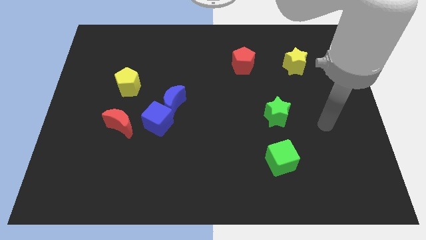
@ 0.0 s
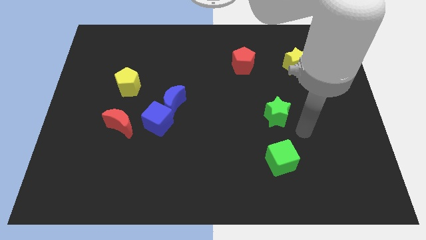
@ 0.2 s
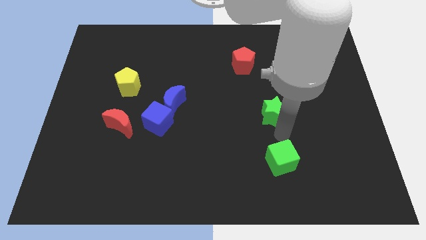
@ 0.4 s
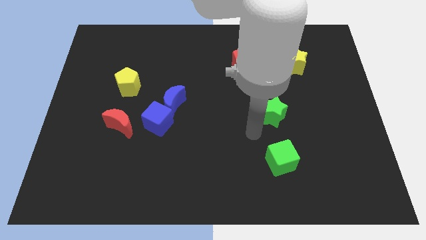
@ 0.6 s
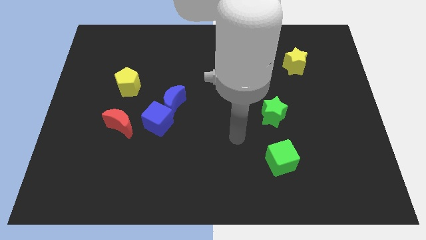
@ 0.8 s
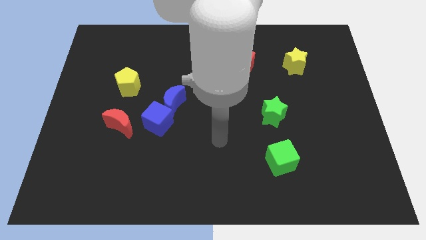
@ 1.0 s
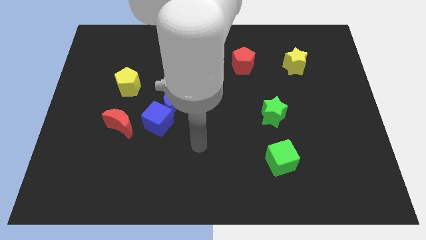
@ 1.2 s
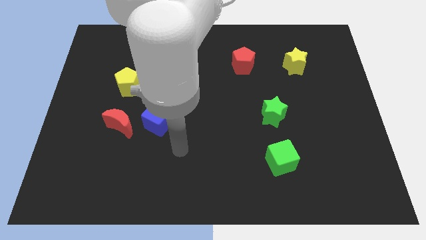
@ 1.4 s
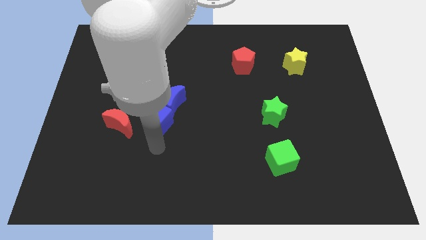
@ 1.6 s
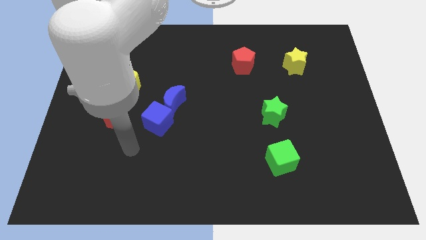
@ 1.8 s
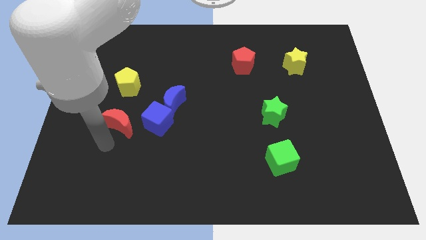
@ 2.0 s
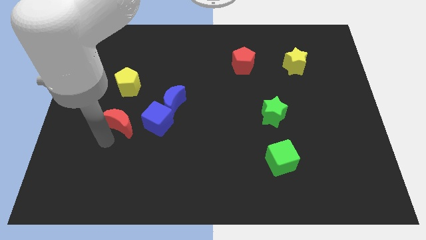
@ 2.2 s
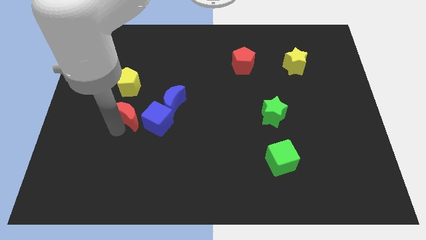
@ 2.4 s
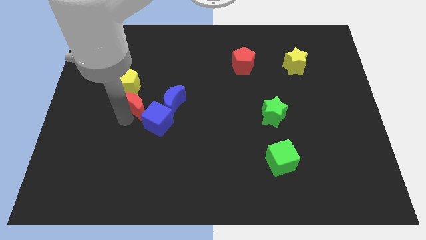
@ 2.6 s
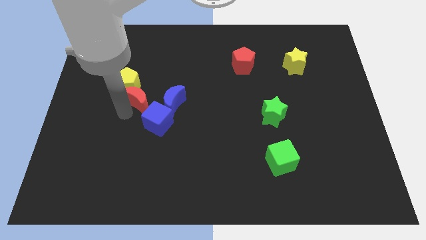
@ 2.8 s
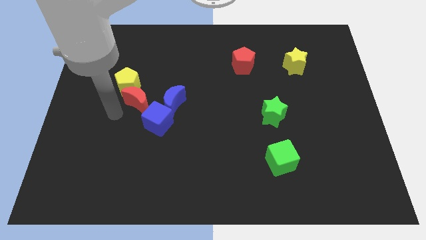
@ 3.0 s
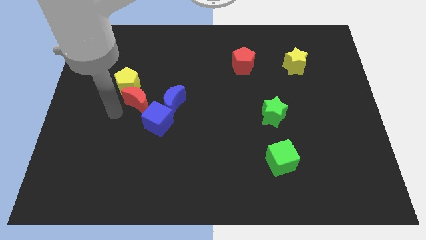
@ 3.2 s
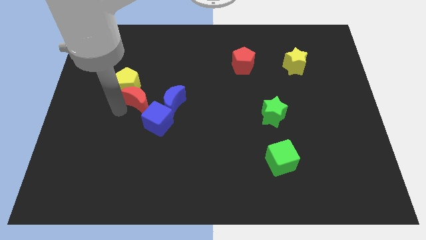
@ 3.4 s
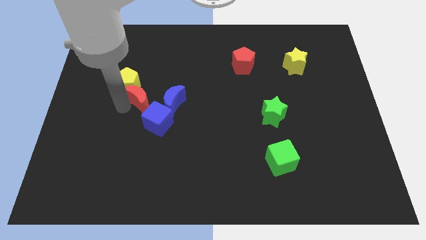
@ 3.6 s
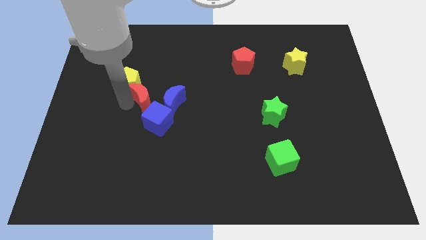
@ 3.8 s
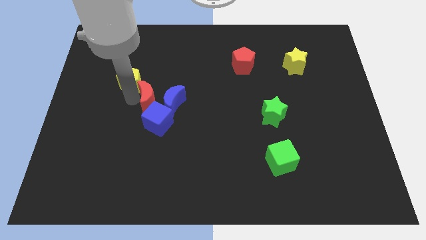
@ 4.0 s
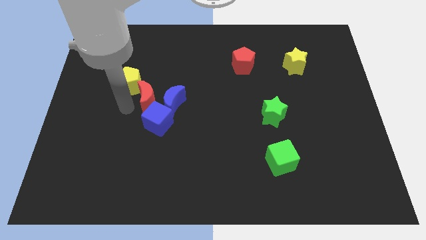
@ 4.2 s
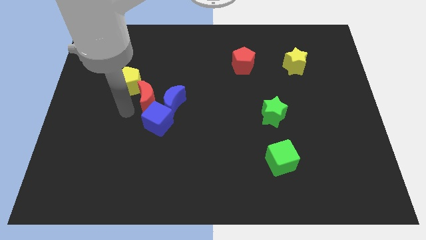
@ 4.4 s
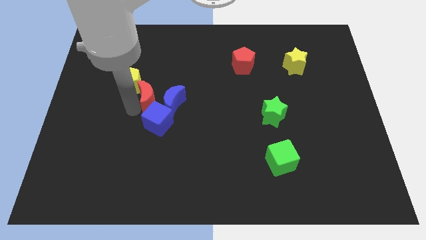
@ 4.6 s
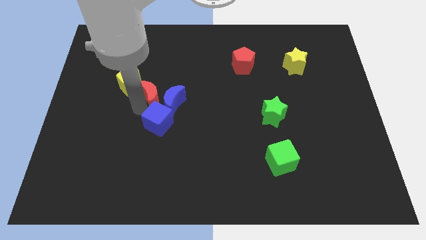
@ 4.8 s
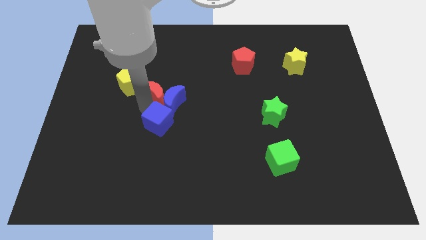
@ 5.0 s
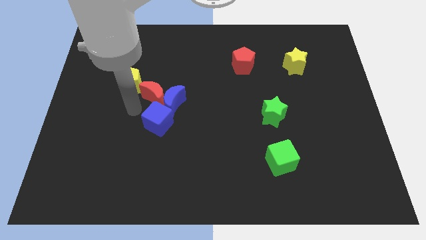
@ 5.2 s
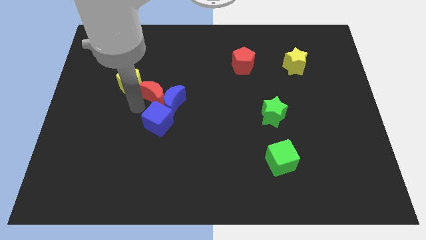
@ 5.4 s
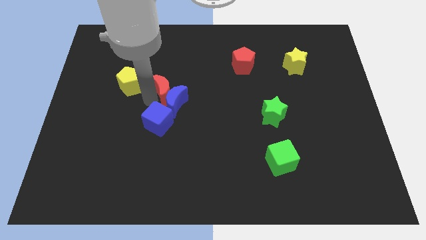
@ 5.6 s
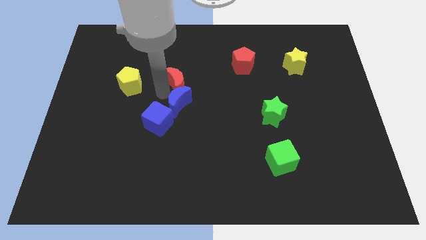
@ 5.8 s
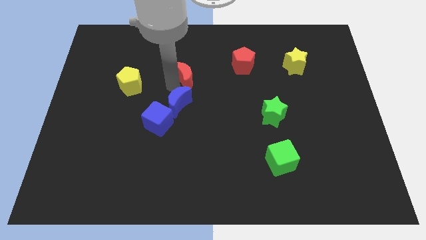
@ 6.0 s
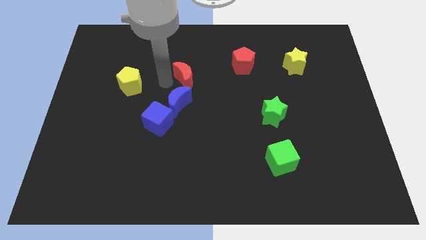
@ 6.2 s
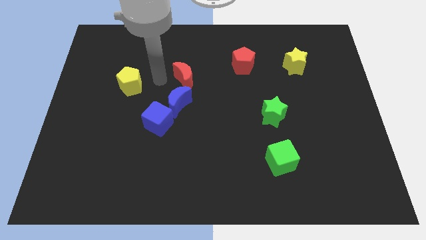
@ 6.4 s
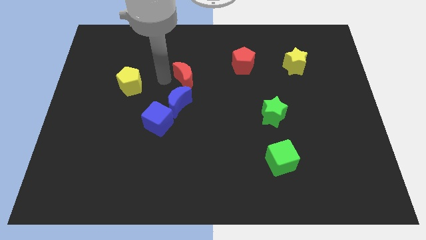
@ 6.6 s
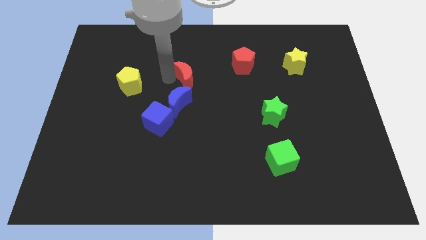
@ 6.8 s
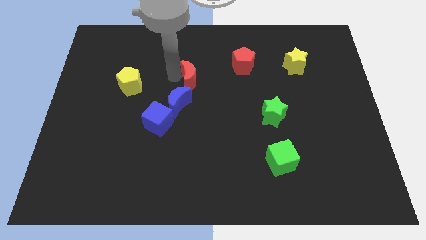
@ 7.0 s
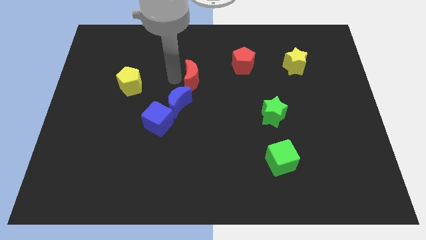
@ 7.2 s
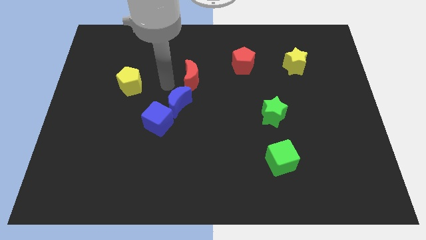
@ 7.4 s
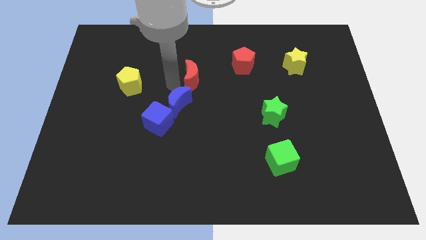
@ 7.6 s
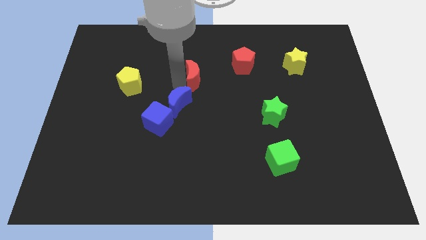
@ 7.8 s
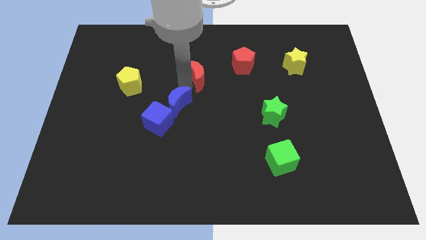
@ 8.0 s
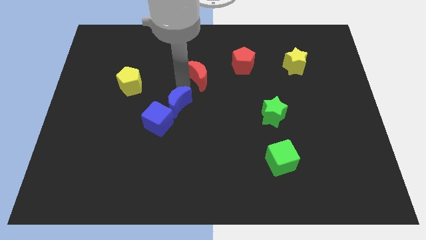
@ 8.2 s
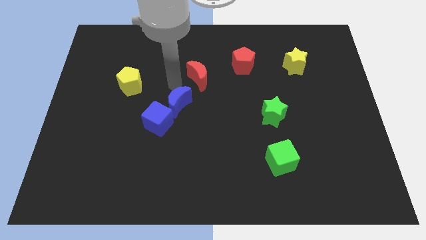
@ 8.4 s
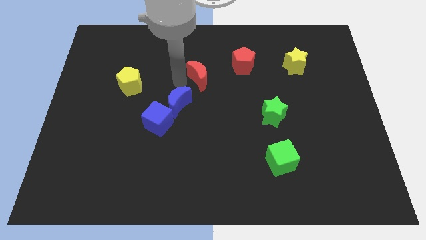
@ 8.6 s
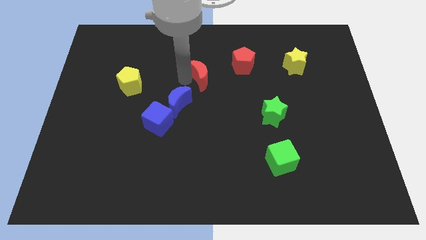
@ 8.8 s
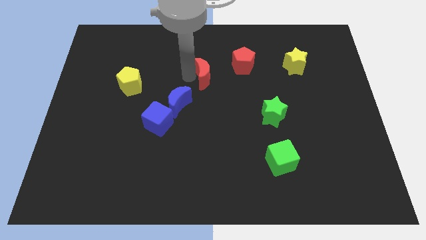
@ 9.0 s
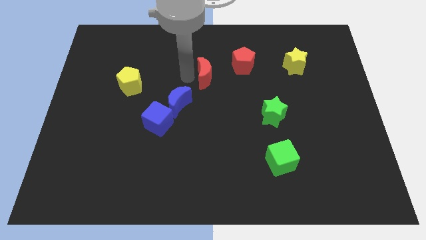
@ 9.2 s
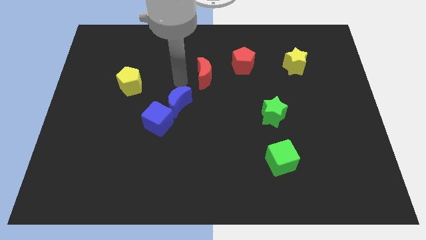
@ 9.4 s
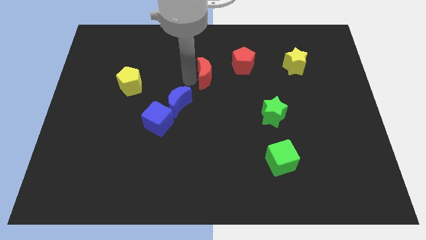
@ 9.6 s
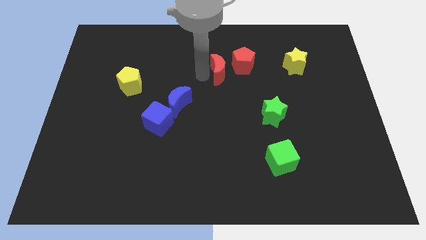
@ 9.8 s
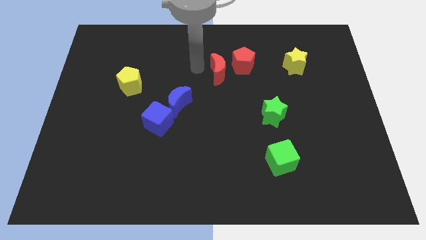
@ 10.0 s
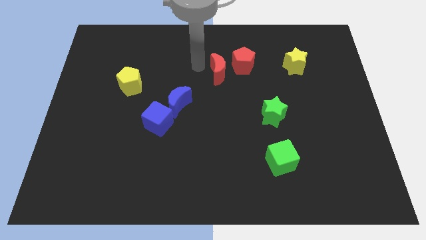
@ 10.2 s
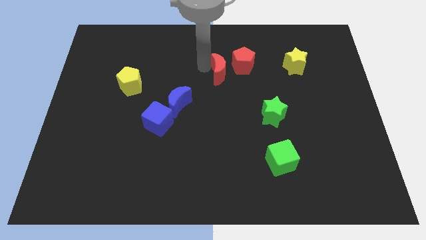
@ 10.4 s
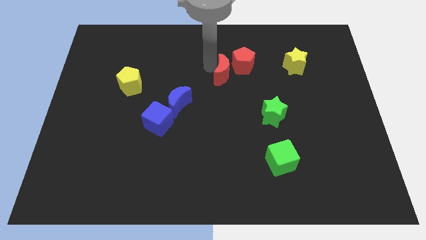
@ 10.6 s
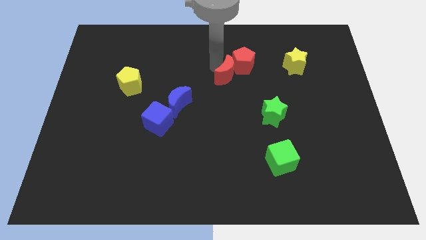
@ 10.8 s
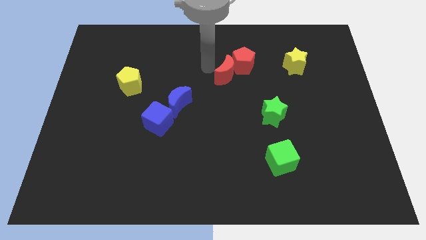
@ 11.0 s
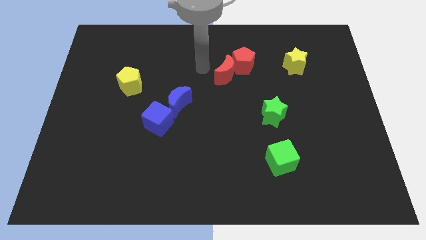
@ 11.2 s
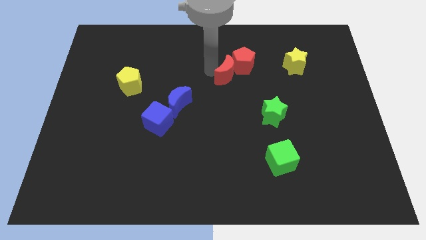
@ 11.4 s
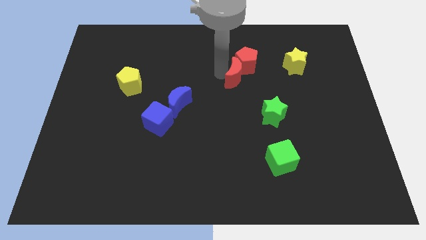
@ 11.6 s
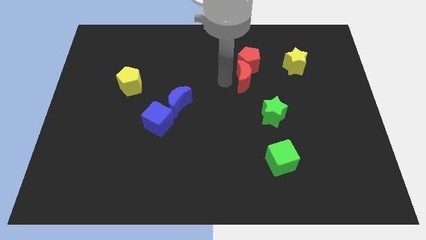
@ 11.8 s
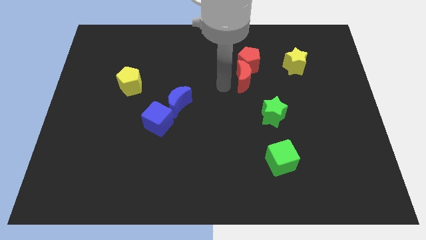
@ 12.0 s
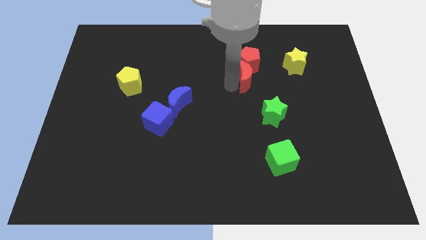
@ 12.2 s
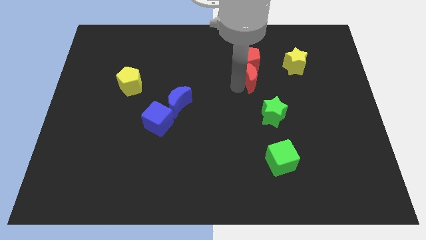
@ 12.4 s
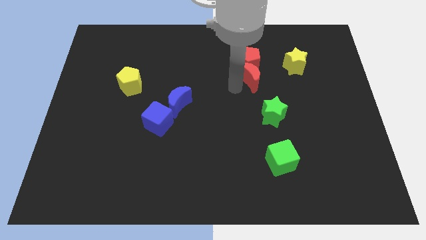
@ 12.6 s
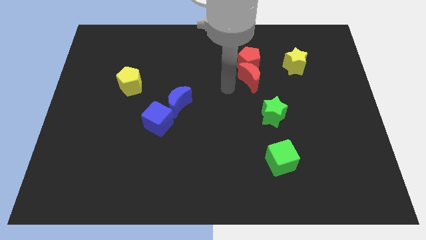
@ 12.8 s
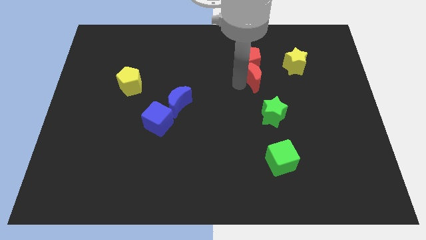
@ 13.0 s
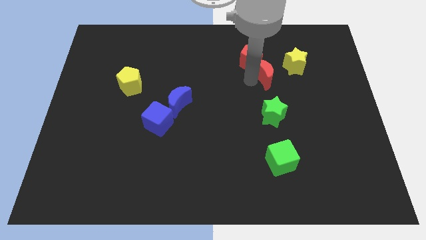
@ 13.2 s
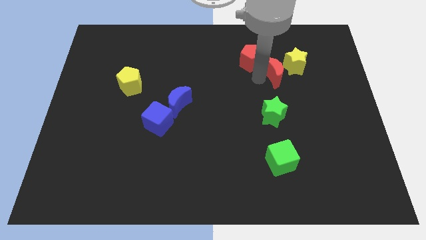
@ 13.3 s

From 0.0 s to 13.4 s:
slide the red moon towards the yellow star

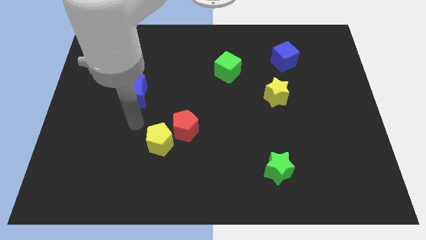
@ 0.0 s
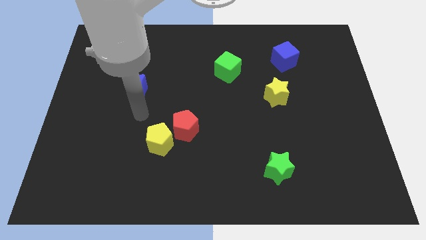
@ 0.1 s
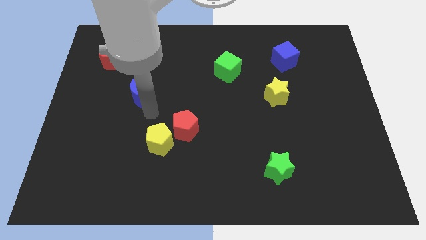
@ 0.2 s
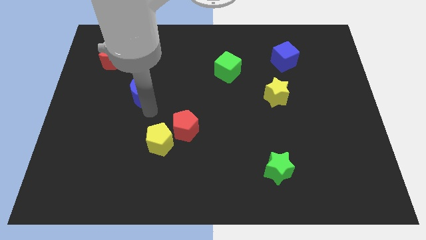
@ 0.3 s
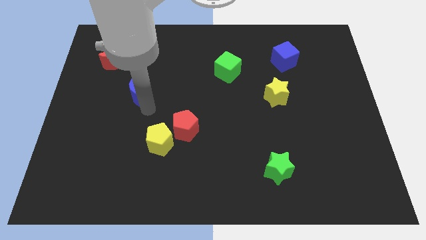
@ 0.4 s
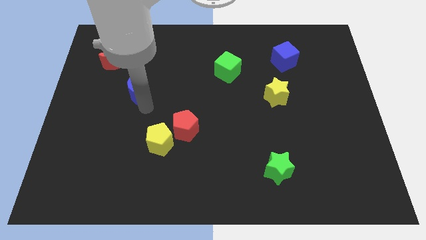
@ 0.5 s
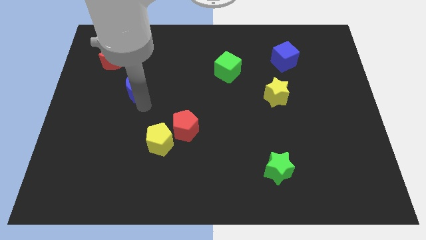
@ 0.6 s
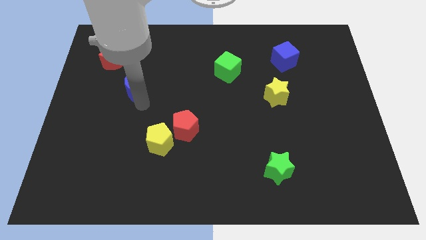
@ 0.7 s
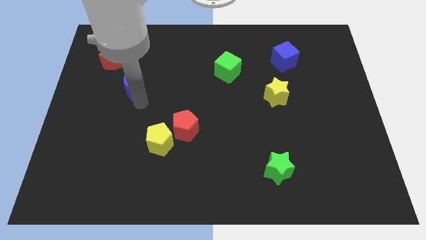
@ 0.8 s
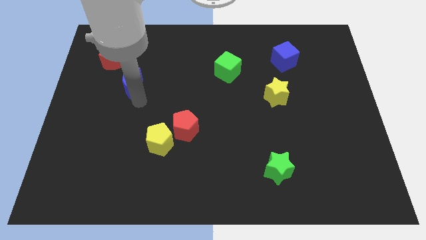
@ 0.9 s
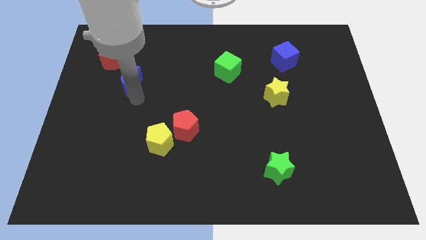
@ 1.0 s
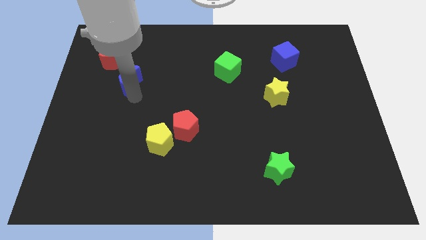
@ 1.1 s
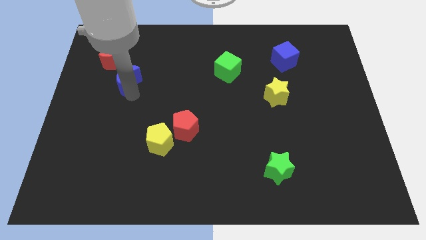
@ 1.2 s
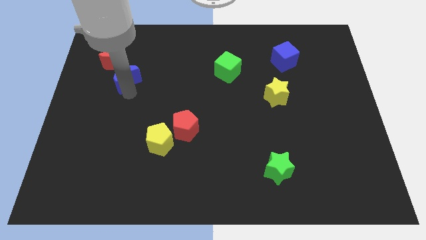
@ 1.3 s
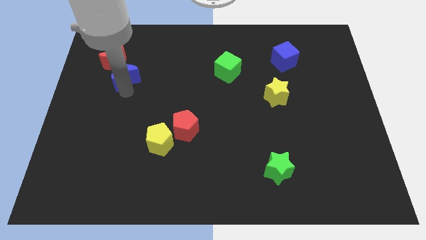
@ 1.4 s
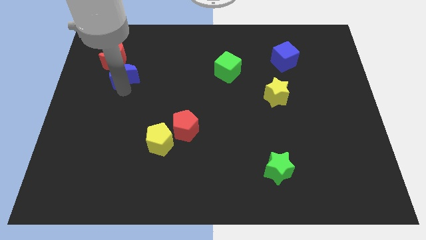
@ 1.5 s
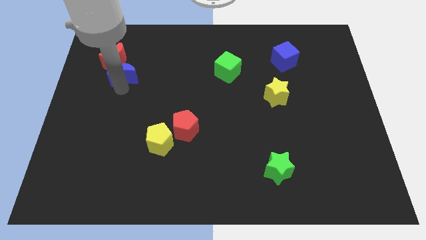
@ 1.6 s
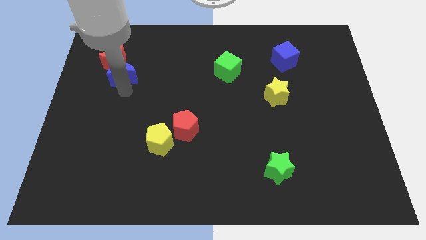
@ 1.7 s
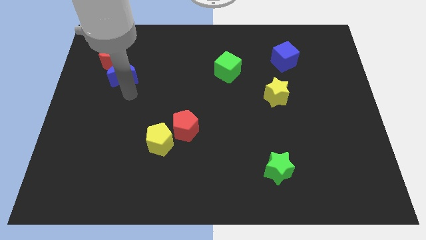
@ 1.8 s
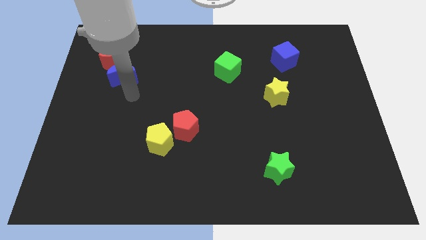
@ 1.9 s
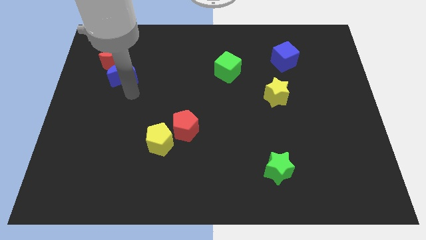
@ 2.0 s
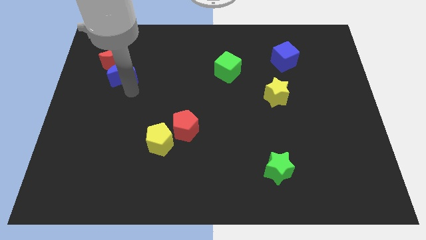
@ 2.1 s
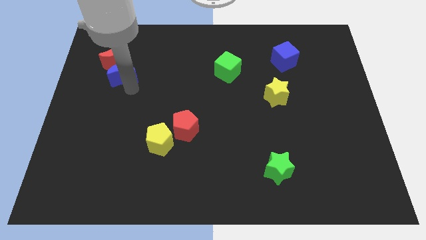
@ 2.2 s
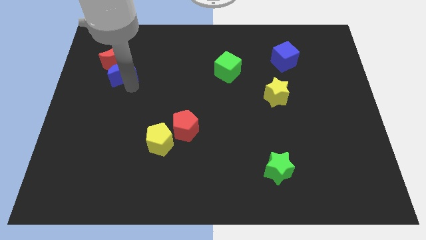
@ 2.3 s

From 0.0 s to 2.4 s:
put the blue moon to the red moon
